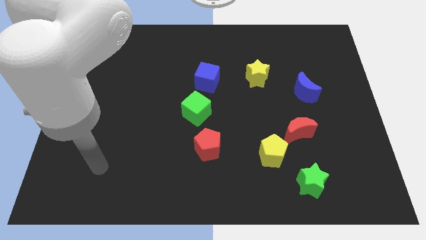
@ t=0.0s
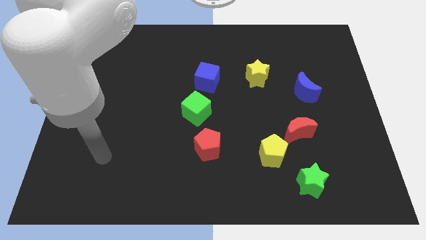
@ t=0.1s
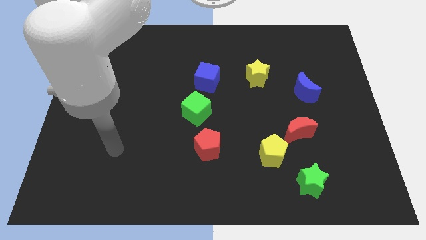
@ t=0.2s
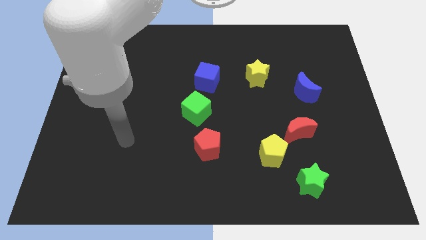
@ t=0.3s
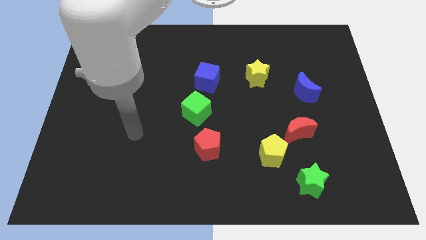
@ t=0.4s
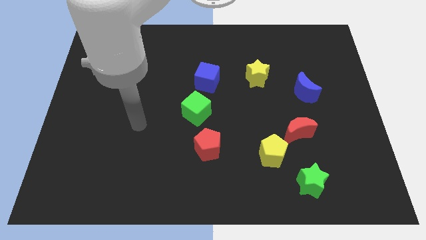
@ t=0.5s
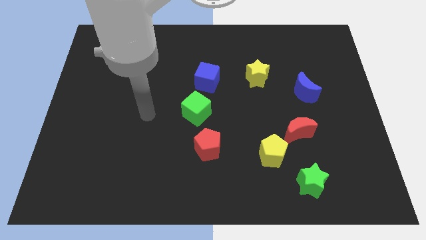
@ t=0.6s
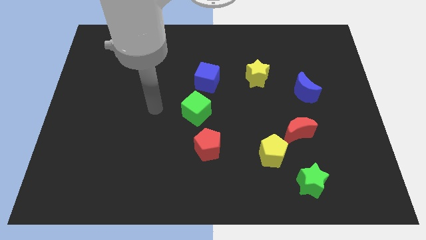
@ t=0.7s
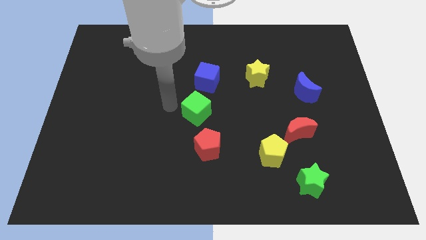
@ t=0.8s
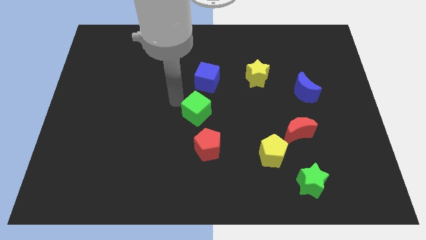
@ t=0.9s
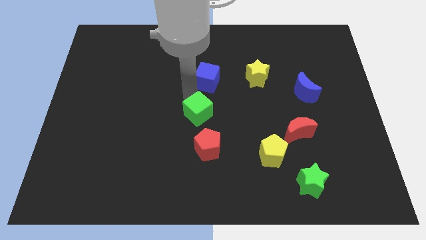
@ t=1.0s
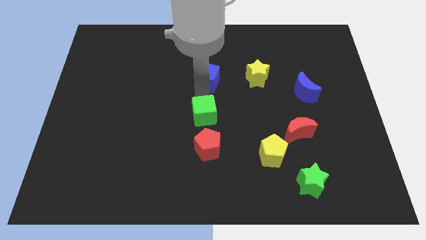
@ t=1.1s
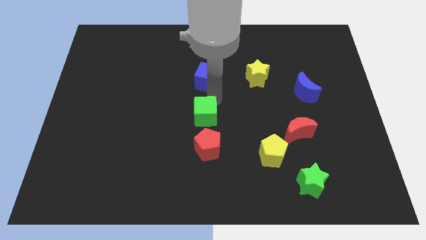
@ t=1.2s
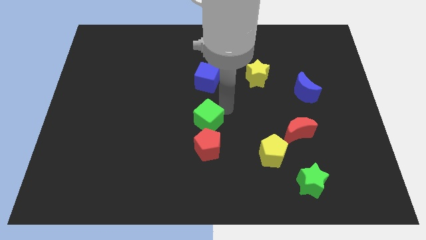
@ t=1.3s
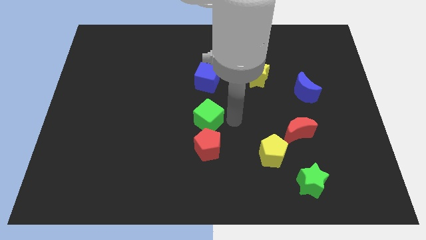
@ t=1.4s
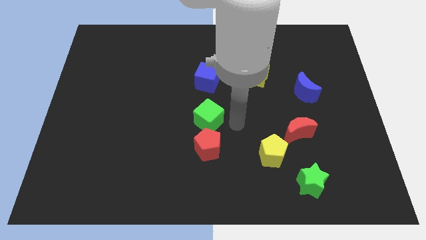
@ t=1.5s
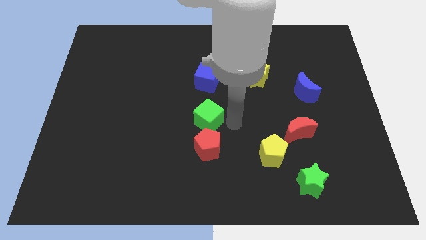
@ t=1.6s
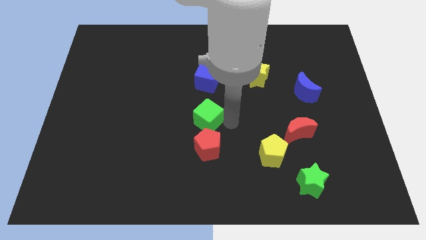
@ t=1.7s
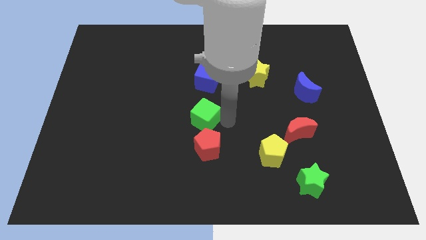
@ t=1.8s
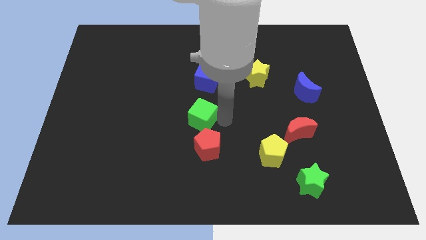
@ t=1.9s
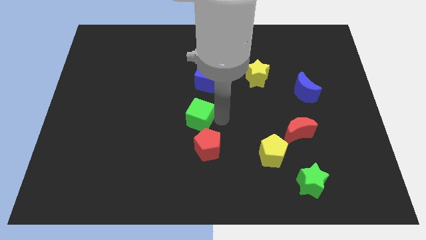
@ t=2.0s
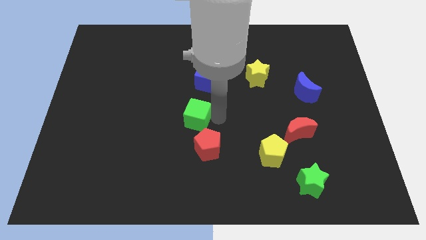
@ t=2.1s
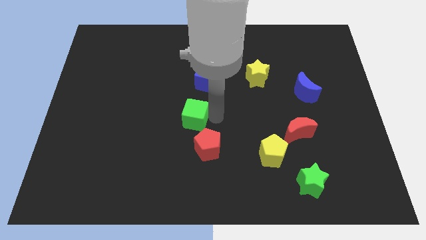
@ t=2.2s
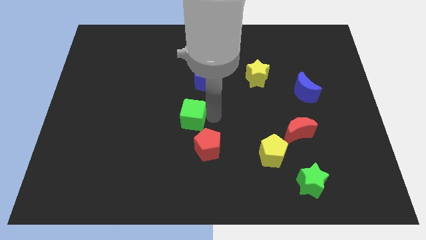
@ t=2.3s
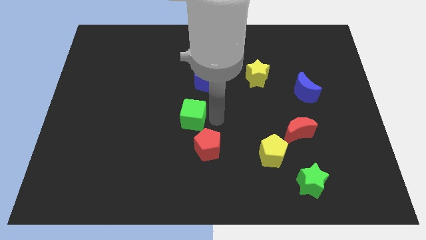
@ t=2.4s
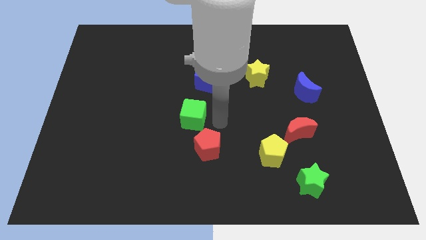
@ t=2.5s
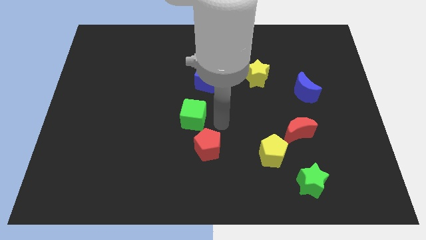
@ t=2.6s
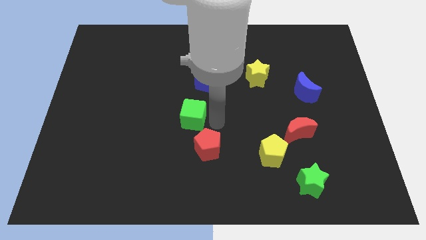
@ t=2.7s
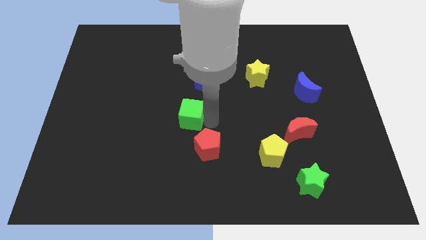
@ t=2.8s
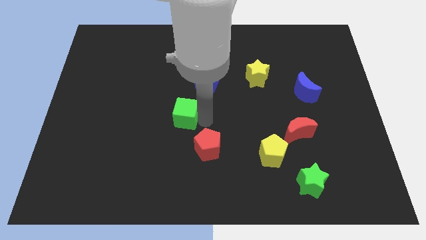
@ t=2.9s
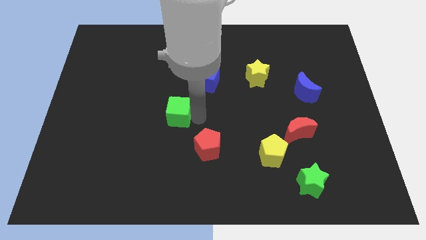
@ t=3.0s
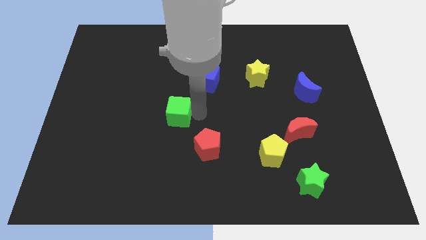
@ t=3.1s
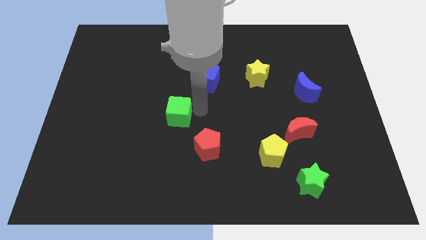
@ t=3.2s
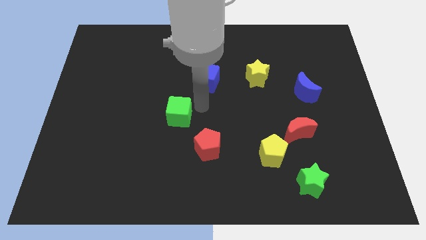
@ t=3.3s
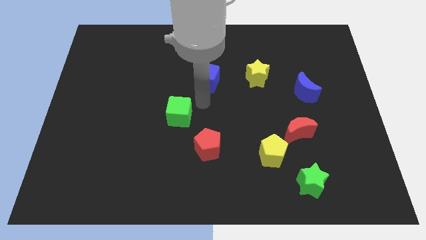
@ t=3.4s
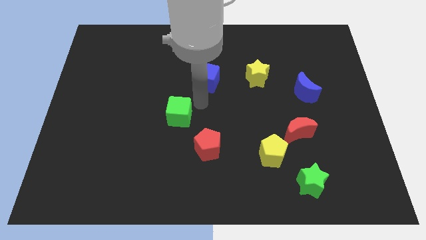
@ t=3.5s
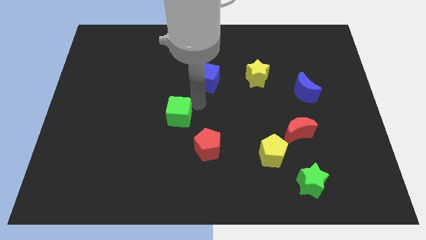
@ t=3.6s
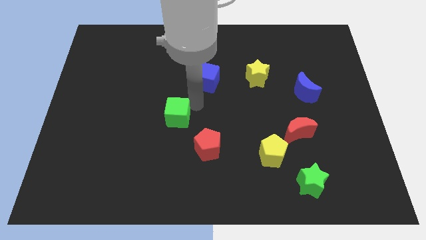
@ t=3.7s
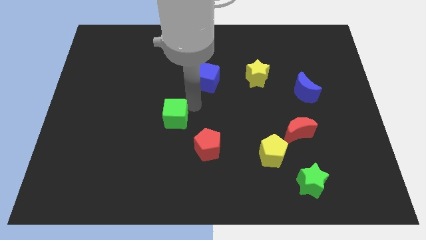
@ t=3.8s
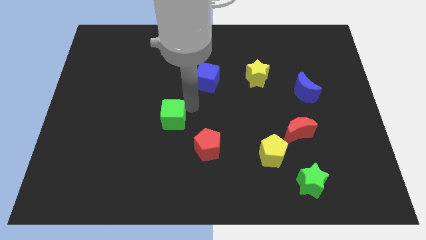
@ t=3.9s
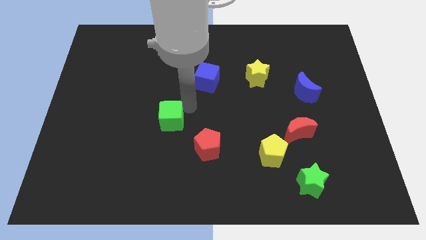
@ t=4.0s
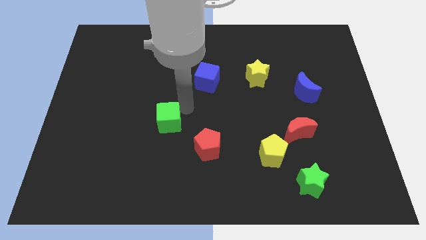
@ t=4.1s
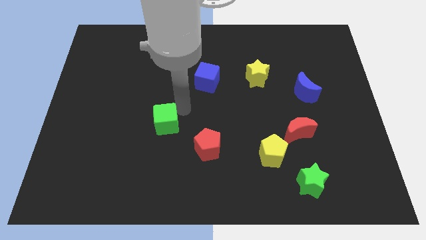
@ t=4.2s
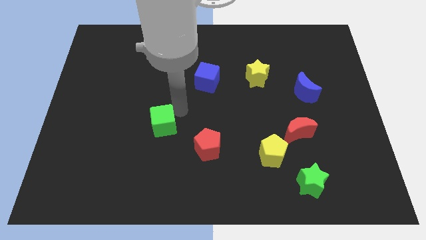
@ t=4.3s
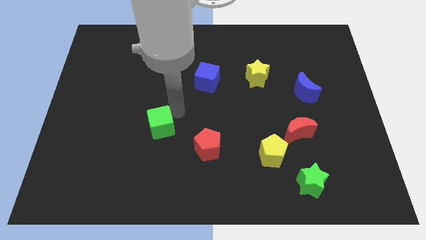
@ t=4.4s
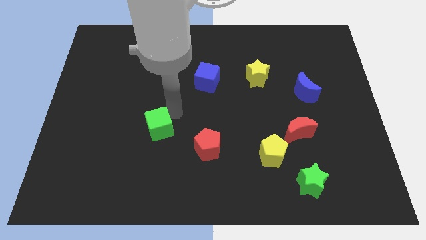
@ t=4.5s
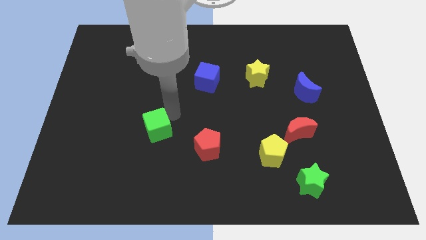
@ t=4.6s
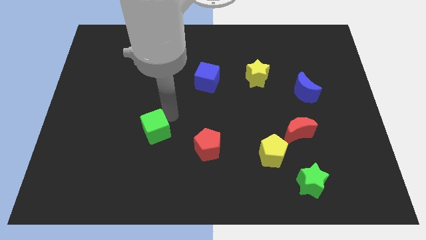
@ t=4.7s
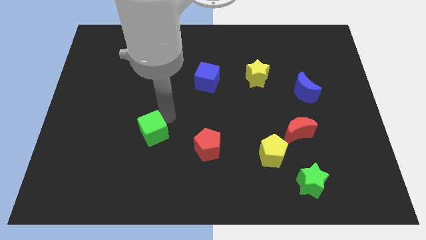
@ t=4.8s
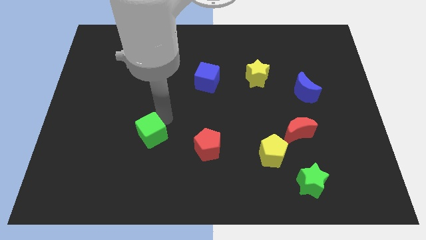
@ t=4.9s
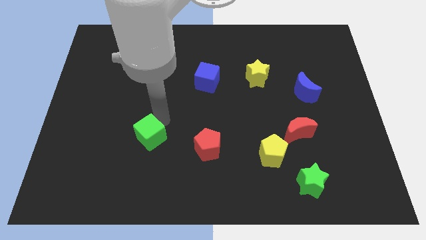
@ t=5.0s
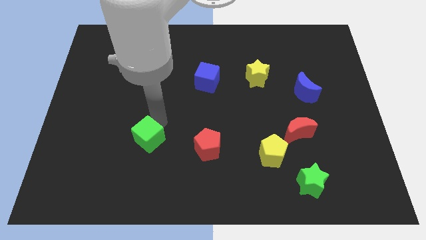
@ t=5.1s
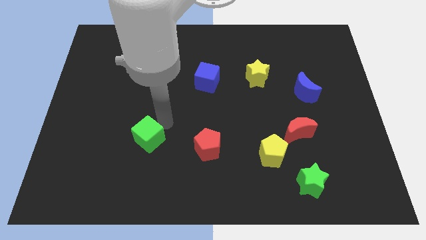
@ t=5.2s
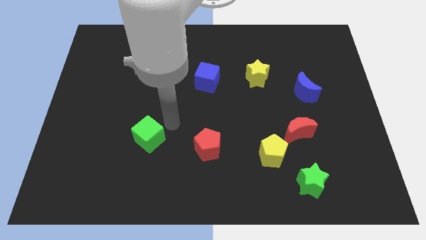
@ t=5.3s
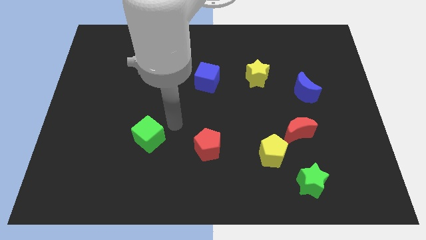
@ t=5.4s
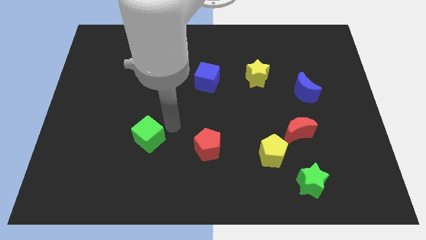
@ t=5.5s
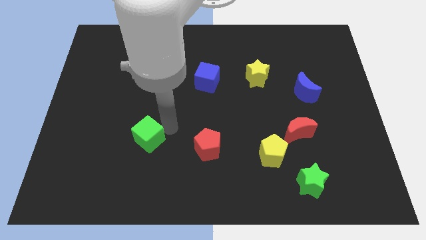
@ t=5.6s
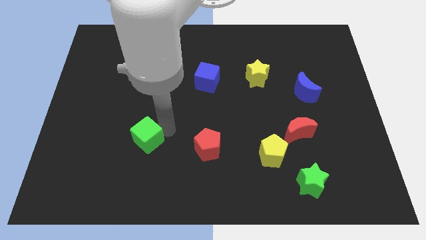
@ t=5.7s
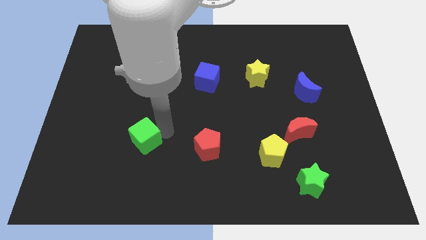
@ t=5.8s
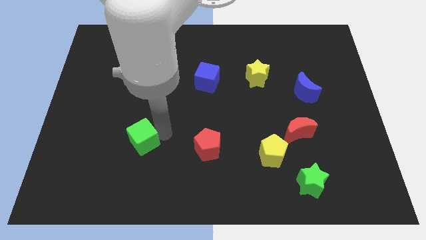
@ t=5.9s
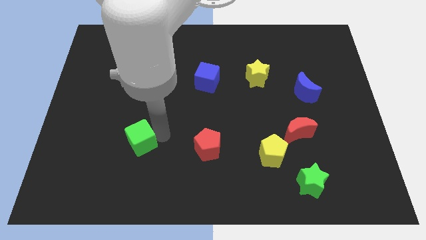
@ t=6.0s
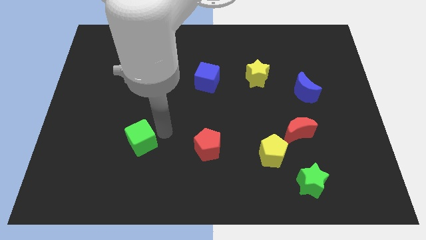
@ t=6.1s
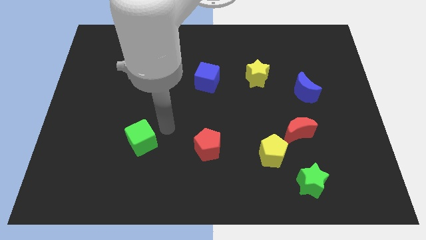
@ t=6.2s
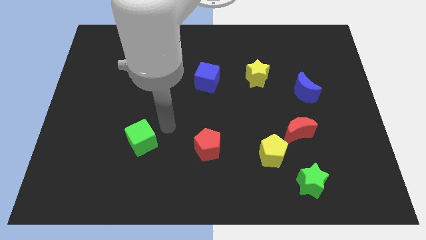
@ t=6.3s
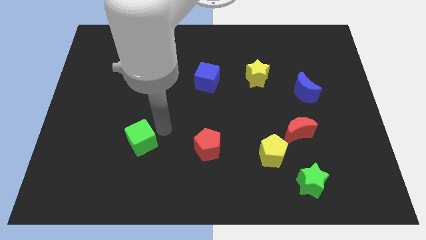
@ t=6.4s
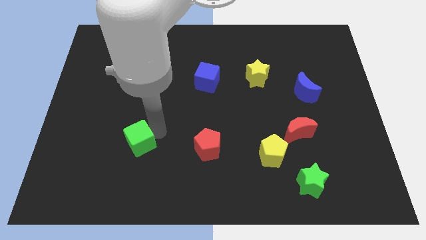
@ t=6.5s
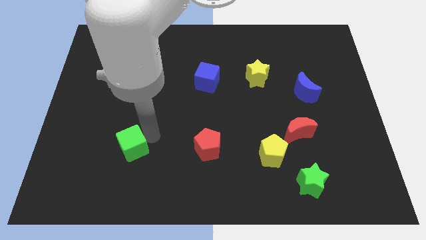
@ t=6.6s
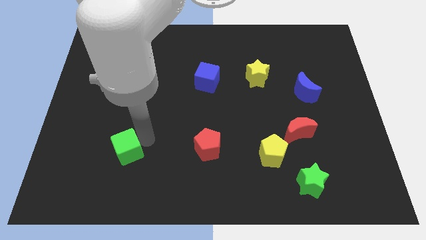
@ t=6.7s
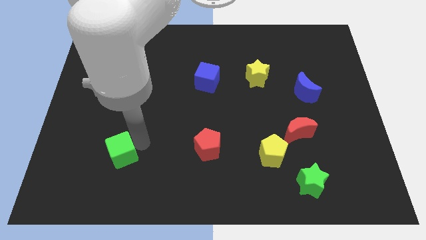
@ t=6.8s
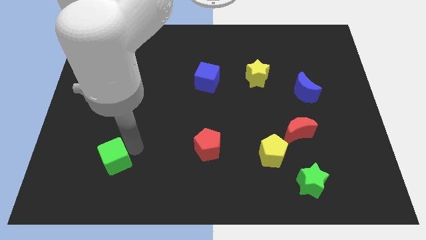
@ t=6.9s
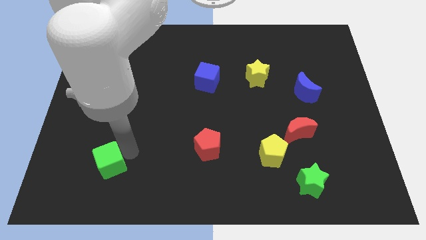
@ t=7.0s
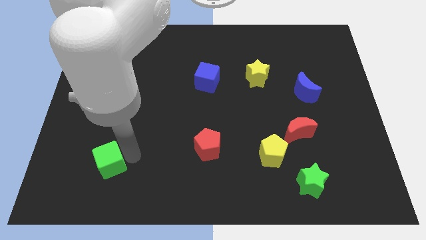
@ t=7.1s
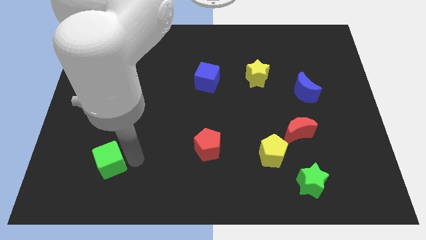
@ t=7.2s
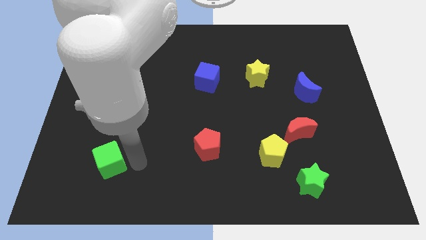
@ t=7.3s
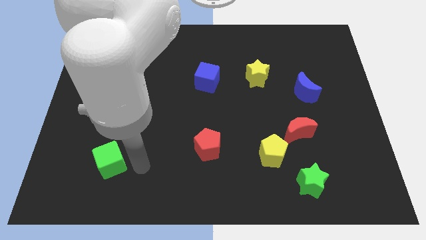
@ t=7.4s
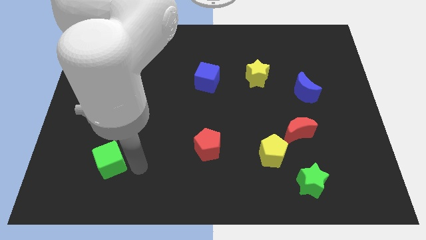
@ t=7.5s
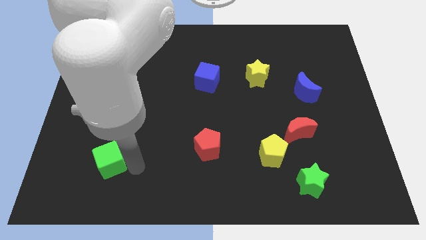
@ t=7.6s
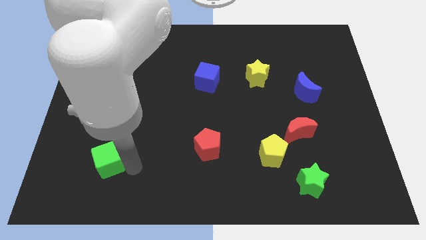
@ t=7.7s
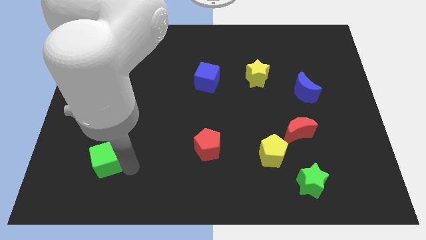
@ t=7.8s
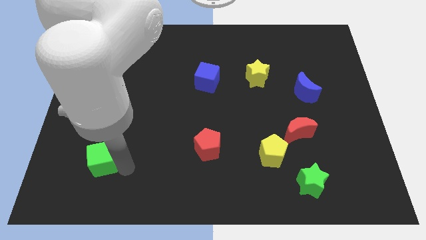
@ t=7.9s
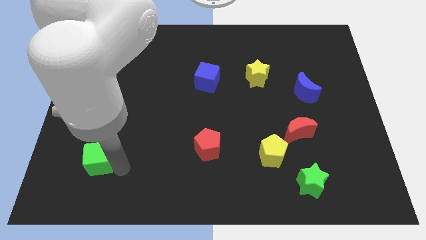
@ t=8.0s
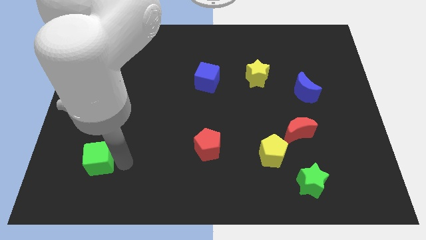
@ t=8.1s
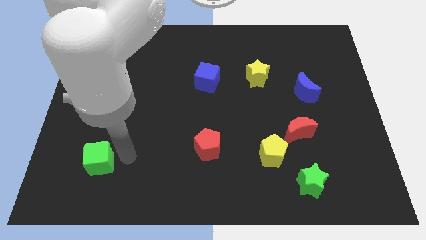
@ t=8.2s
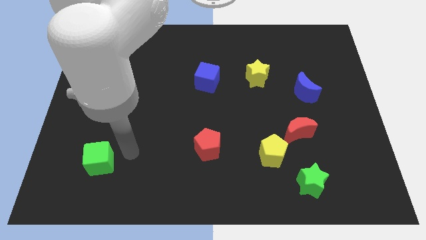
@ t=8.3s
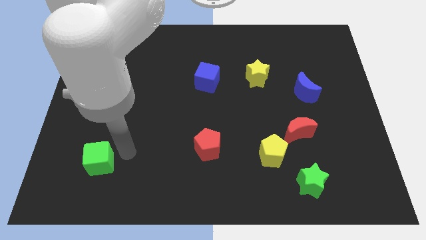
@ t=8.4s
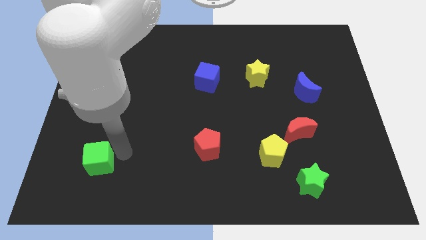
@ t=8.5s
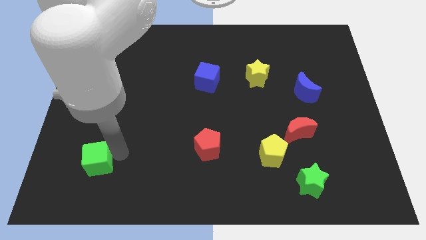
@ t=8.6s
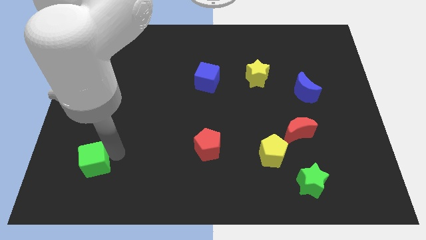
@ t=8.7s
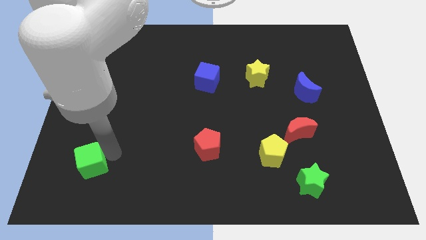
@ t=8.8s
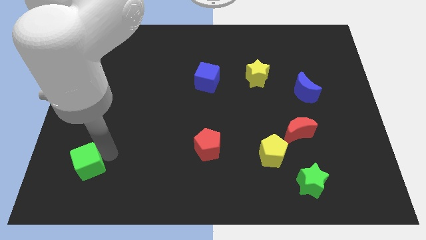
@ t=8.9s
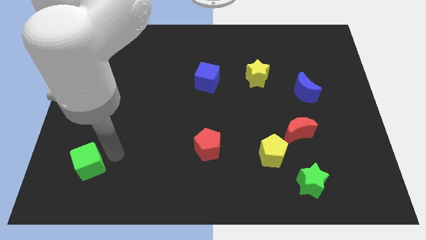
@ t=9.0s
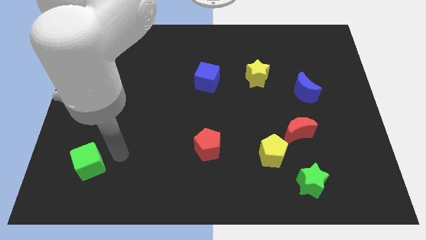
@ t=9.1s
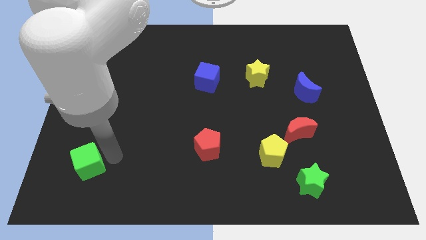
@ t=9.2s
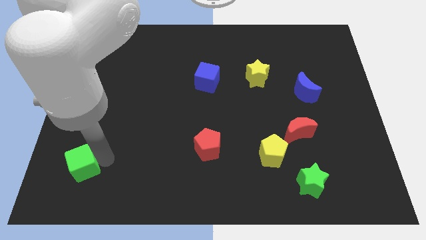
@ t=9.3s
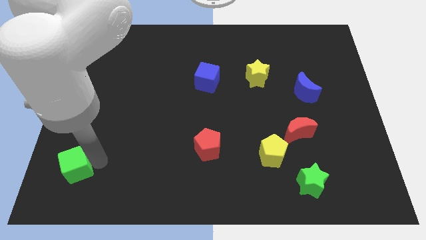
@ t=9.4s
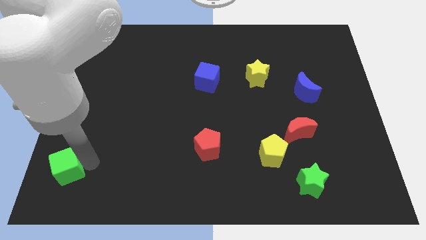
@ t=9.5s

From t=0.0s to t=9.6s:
slide the green cube to the bottom left
